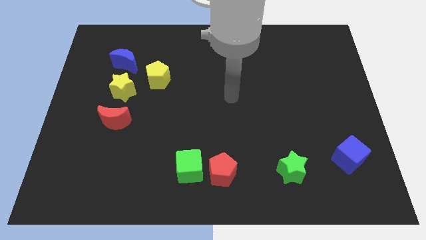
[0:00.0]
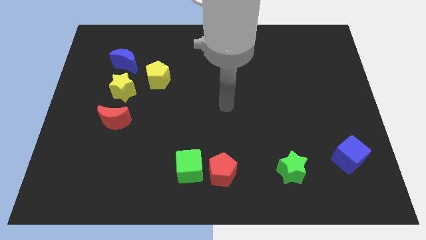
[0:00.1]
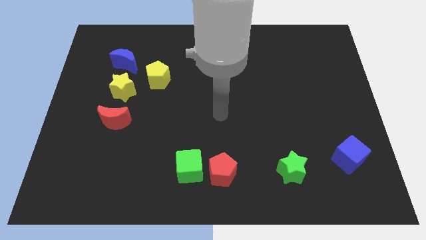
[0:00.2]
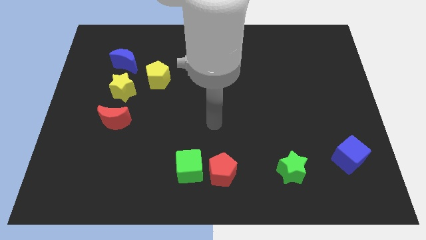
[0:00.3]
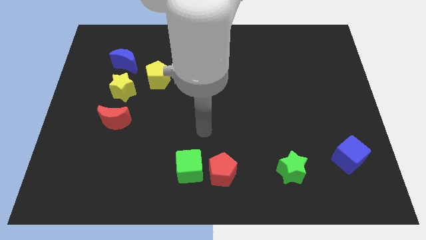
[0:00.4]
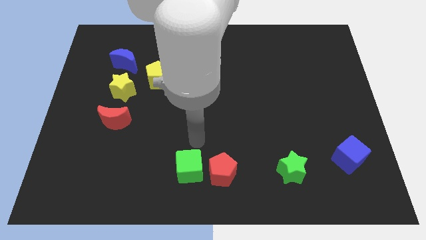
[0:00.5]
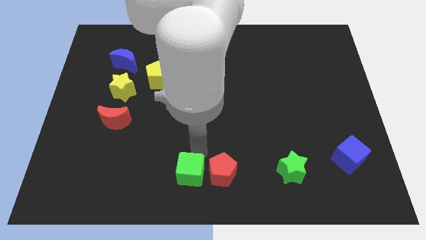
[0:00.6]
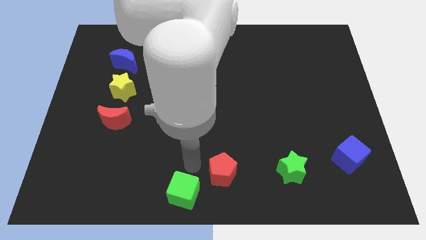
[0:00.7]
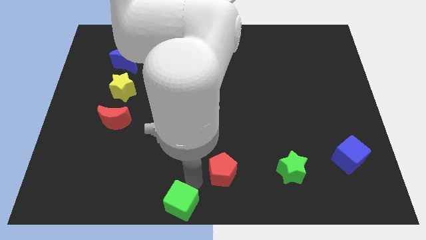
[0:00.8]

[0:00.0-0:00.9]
separate the red pentagon from the green cube

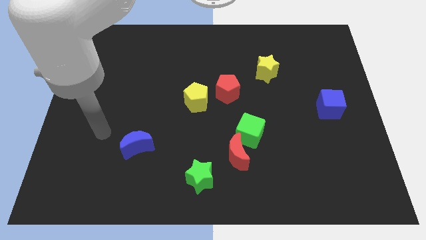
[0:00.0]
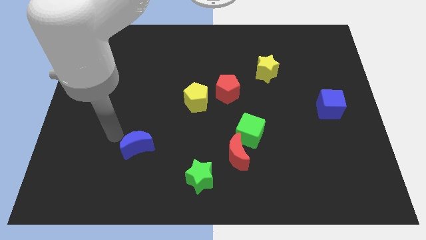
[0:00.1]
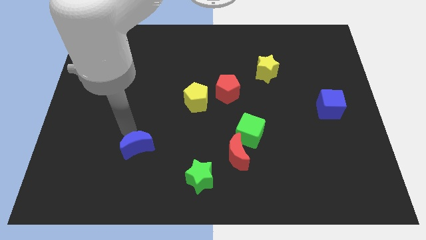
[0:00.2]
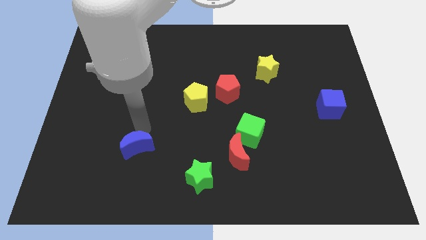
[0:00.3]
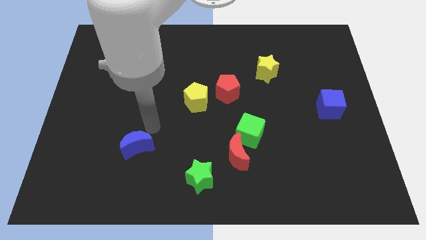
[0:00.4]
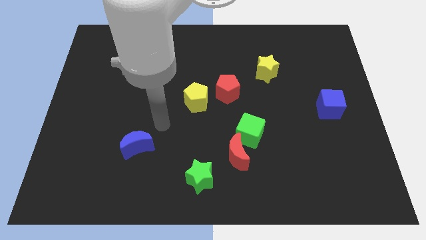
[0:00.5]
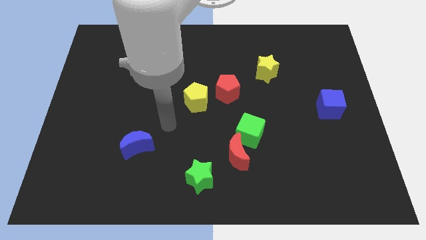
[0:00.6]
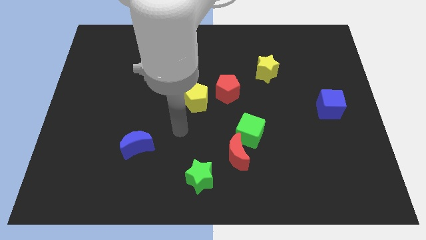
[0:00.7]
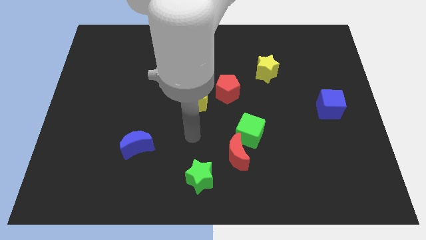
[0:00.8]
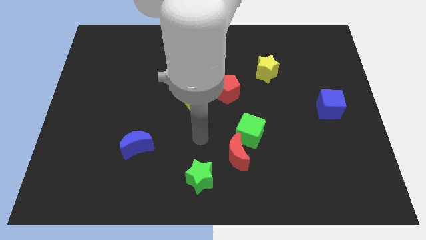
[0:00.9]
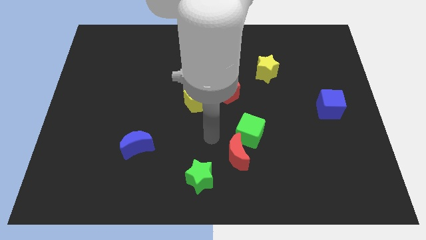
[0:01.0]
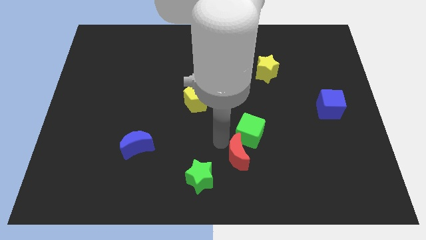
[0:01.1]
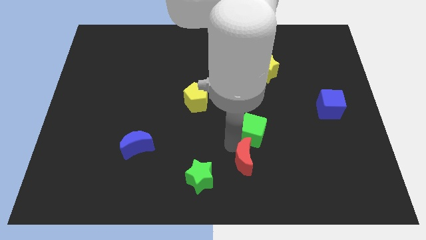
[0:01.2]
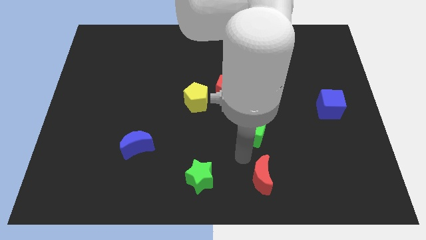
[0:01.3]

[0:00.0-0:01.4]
move the green cube away from the red moon

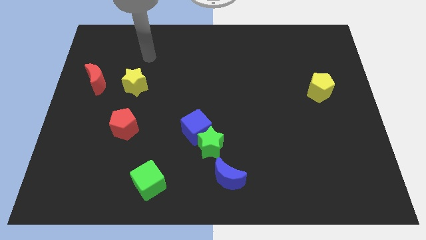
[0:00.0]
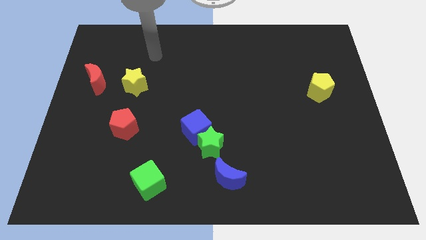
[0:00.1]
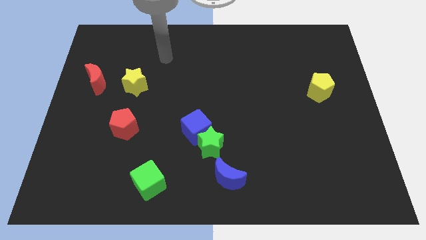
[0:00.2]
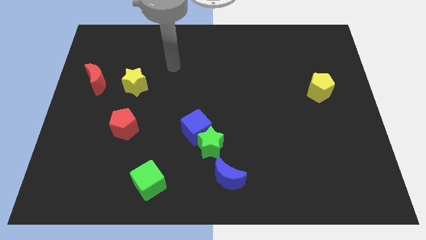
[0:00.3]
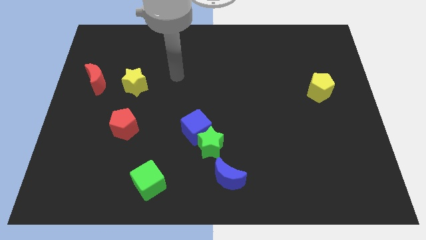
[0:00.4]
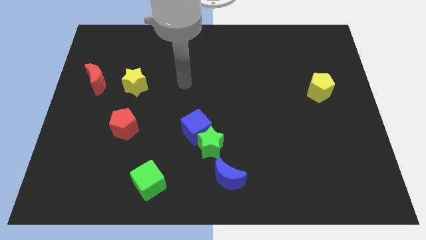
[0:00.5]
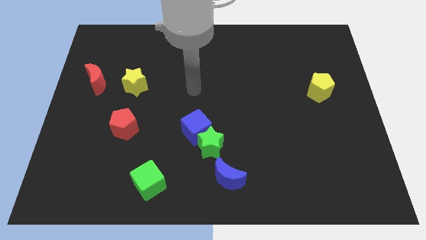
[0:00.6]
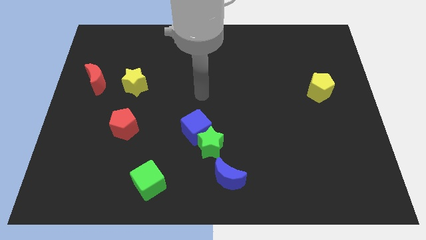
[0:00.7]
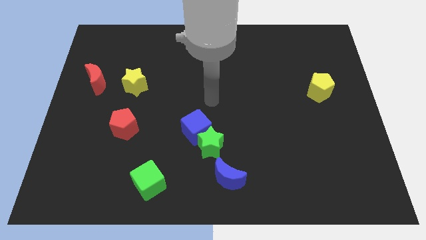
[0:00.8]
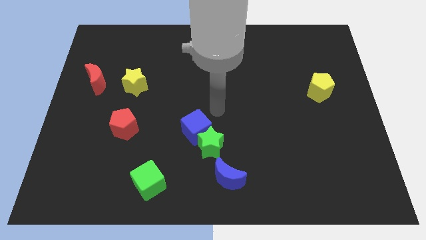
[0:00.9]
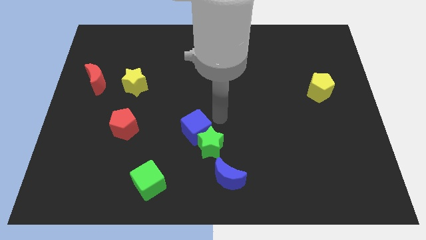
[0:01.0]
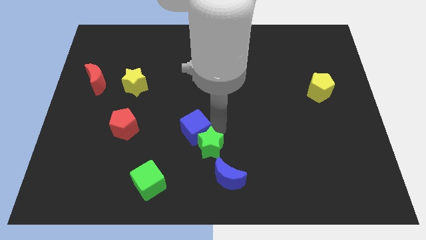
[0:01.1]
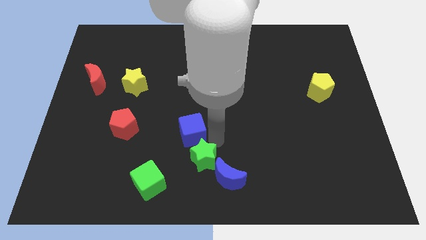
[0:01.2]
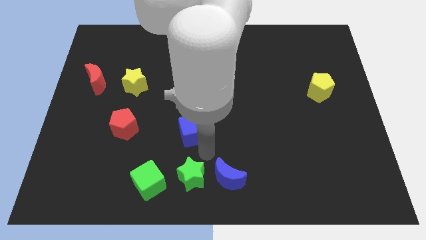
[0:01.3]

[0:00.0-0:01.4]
pull the blue cube apart from the green star

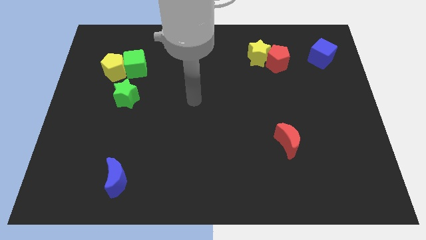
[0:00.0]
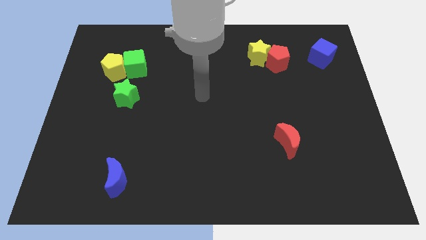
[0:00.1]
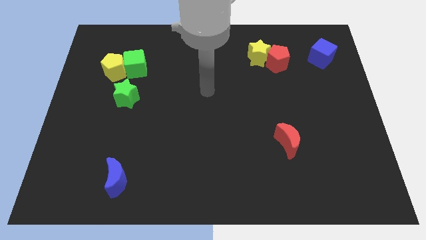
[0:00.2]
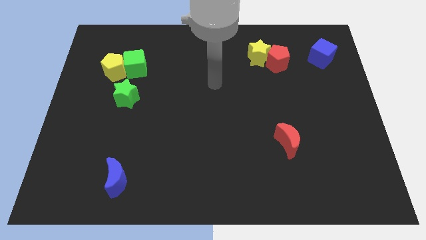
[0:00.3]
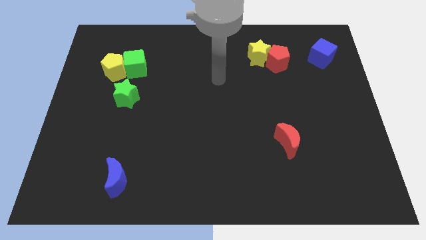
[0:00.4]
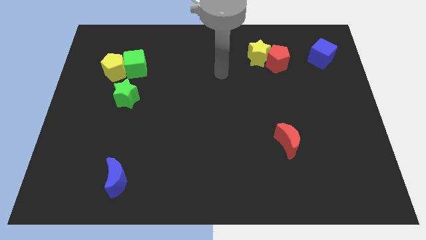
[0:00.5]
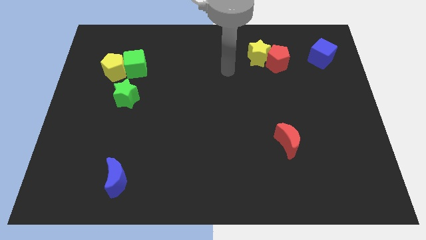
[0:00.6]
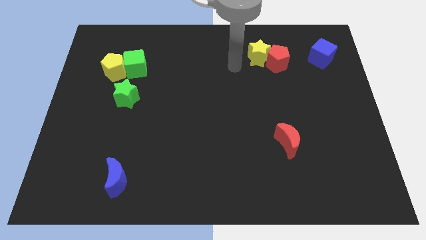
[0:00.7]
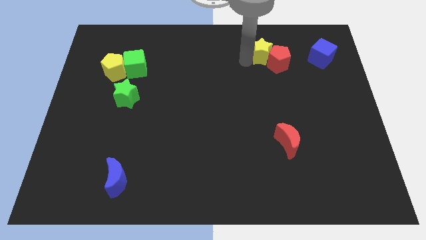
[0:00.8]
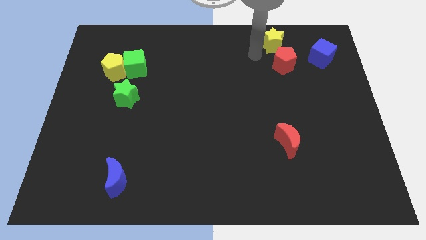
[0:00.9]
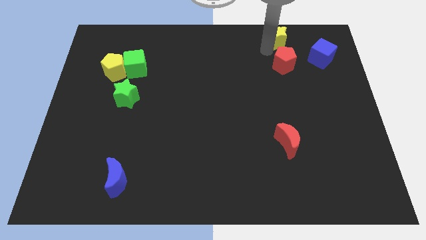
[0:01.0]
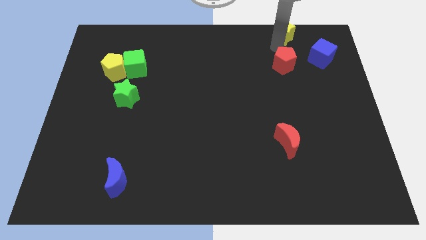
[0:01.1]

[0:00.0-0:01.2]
move the red pentagon away from the yellow star

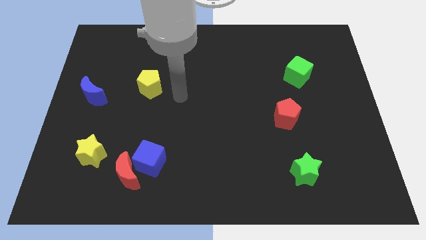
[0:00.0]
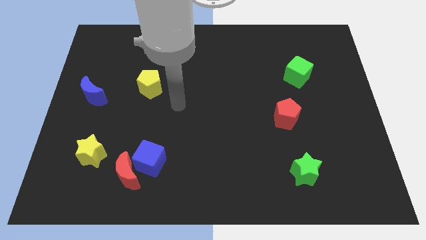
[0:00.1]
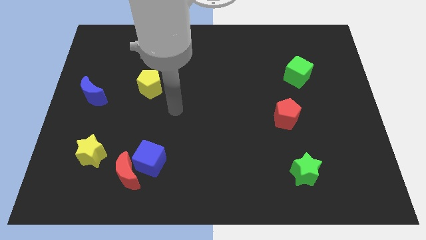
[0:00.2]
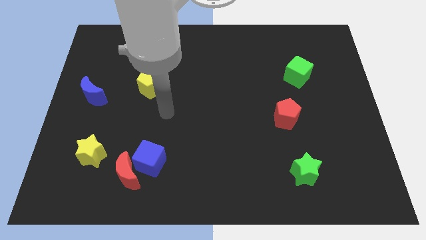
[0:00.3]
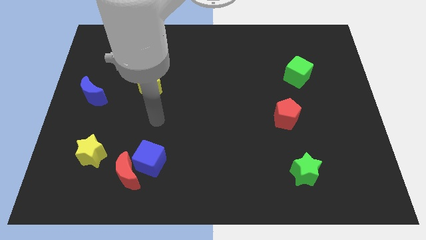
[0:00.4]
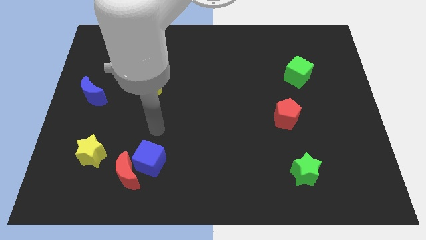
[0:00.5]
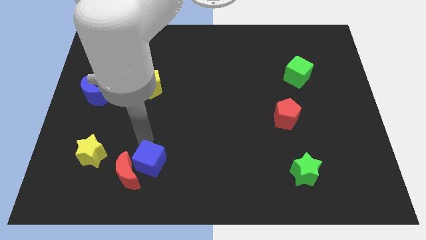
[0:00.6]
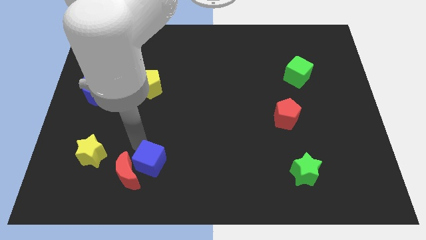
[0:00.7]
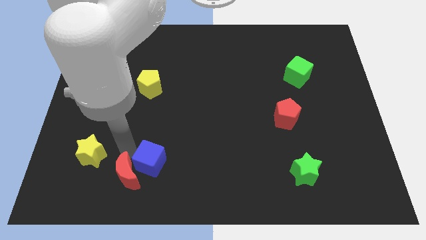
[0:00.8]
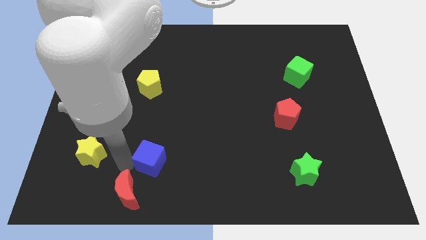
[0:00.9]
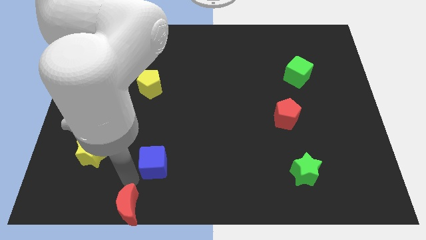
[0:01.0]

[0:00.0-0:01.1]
separate the blue cube from the red moon

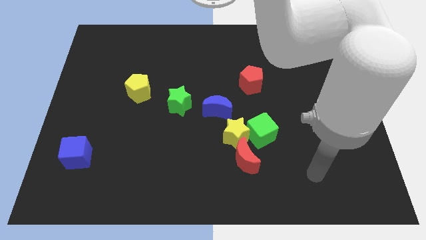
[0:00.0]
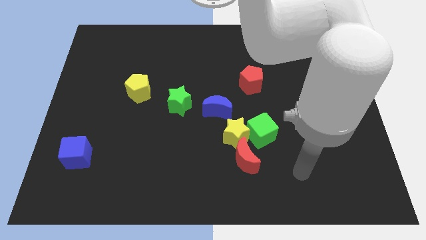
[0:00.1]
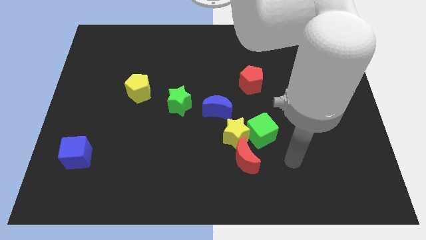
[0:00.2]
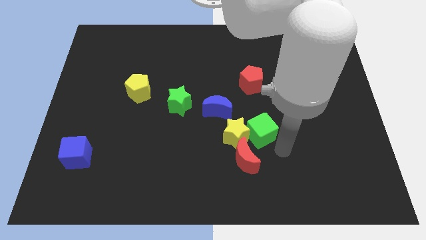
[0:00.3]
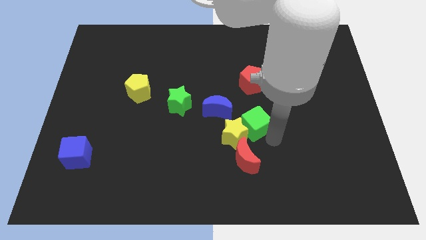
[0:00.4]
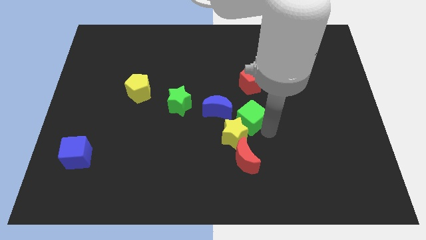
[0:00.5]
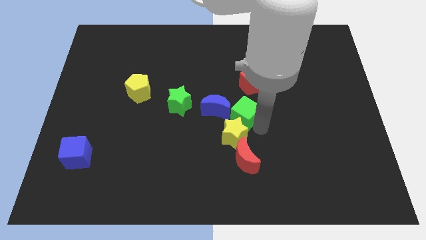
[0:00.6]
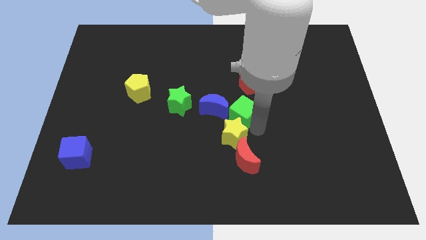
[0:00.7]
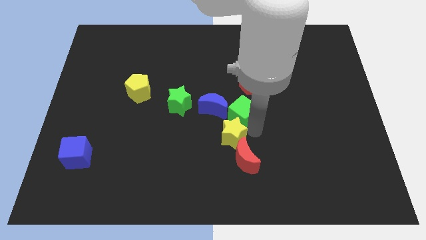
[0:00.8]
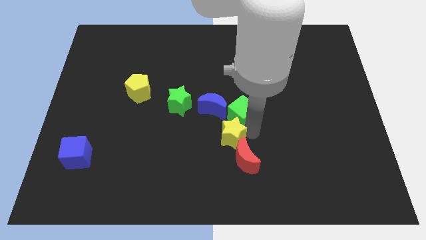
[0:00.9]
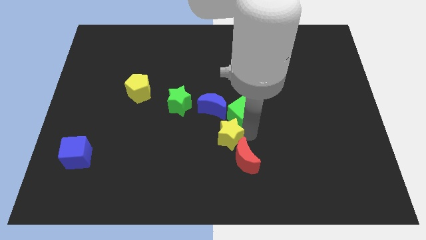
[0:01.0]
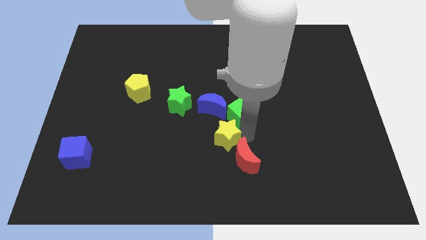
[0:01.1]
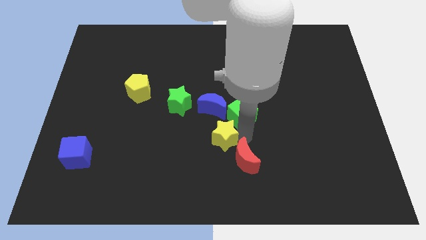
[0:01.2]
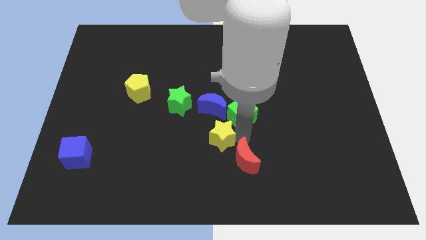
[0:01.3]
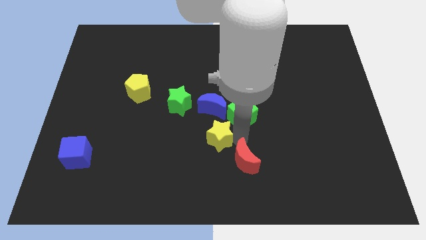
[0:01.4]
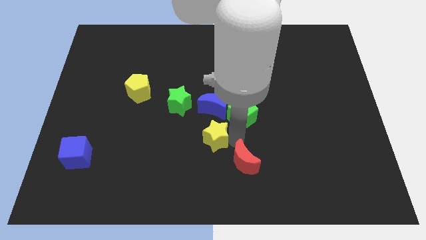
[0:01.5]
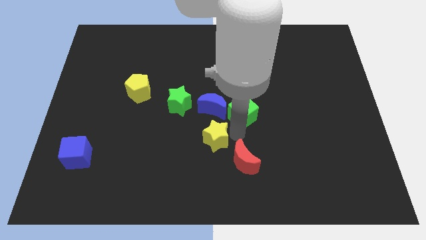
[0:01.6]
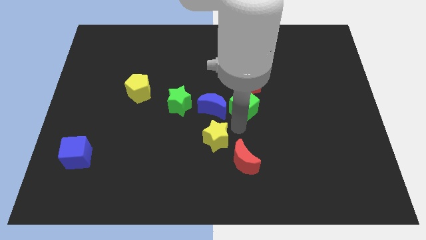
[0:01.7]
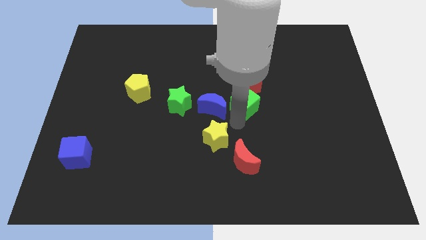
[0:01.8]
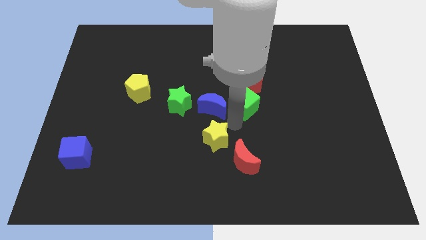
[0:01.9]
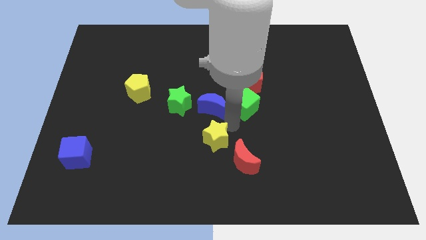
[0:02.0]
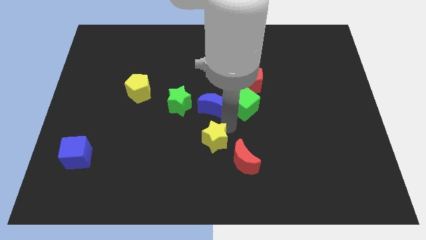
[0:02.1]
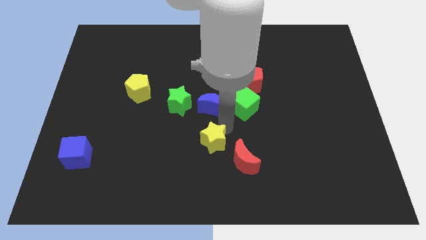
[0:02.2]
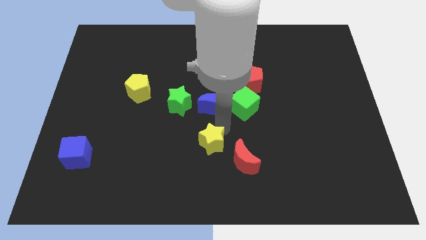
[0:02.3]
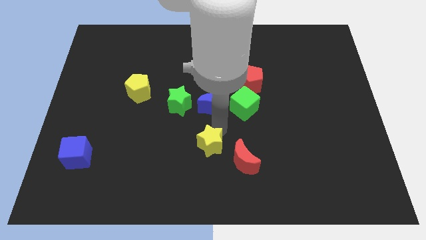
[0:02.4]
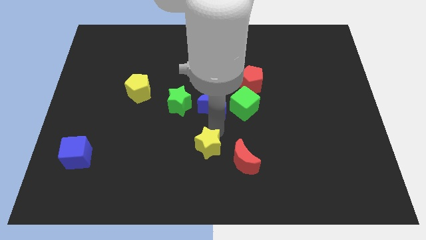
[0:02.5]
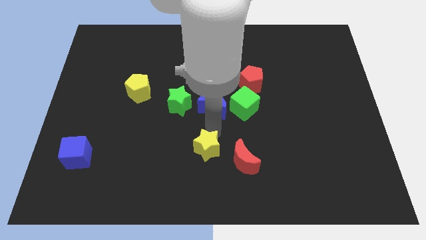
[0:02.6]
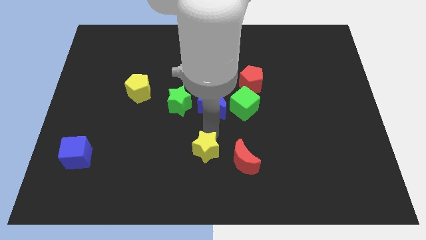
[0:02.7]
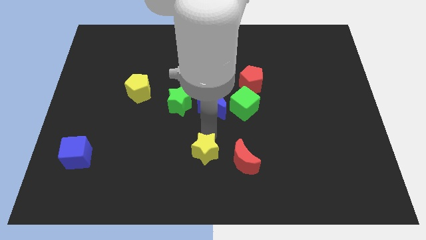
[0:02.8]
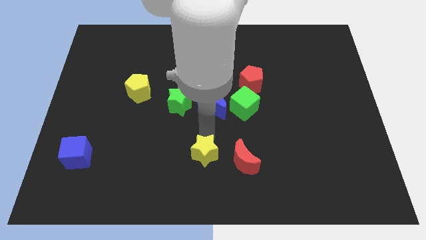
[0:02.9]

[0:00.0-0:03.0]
separate the yellow star from the green cube, red moon, and blue moon

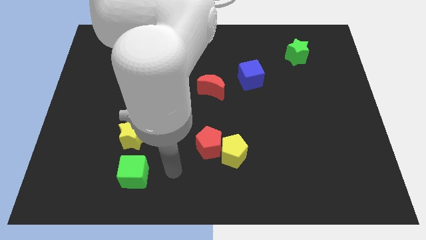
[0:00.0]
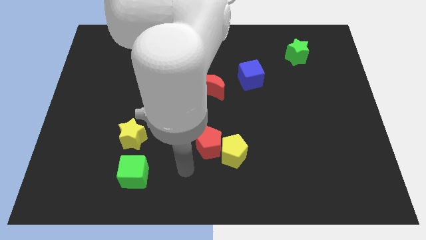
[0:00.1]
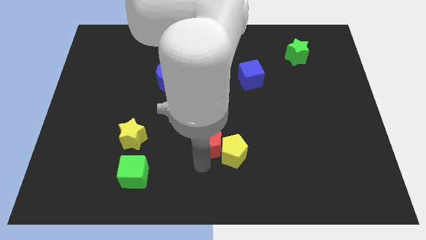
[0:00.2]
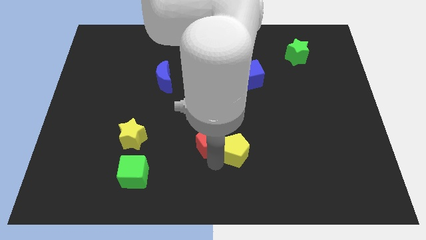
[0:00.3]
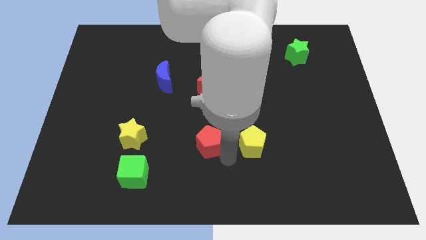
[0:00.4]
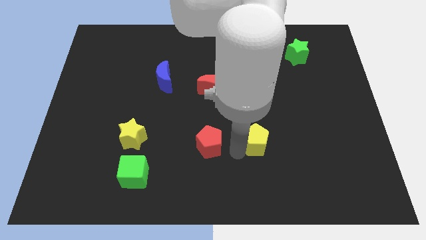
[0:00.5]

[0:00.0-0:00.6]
move the red pentagon away from the yellow pentagon
